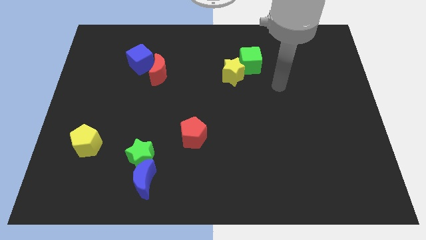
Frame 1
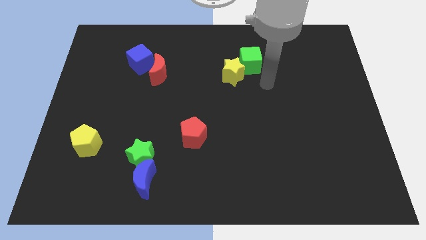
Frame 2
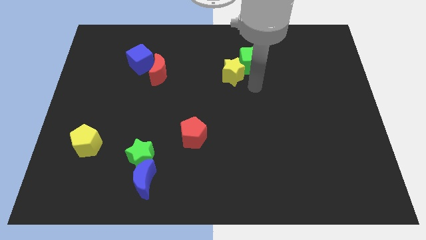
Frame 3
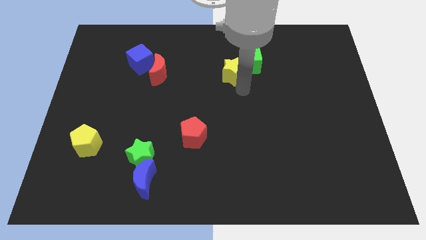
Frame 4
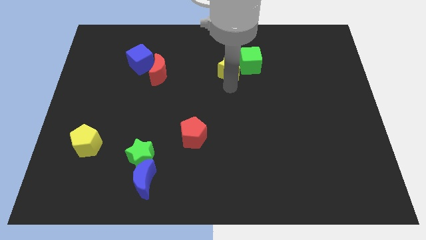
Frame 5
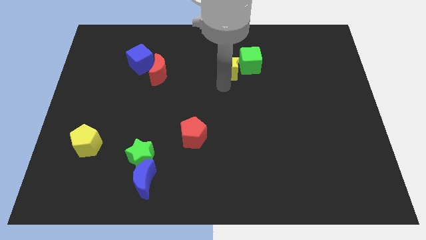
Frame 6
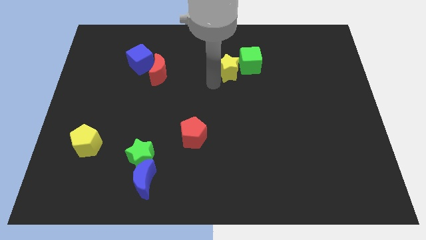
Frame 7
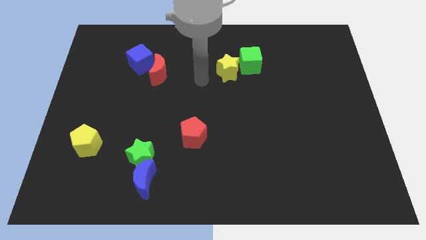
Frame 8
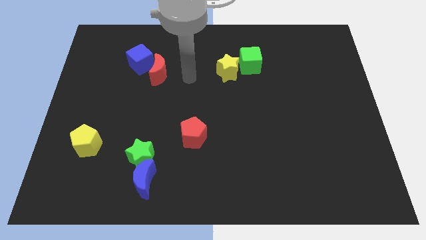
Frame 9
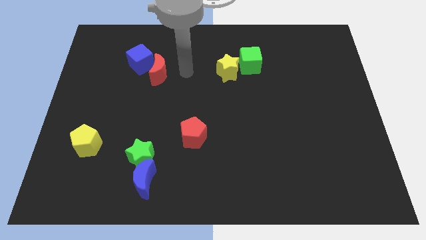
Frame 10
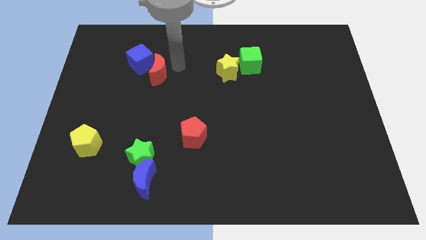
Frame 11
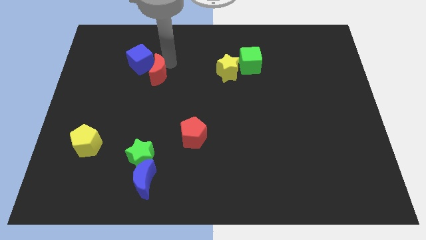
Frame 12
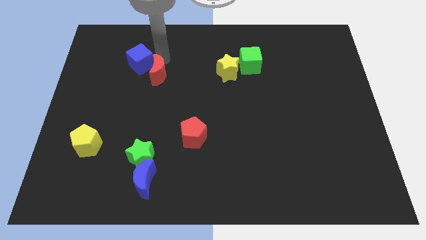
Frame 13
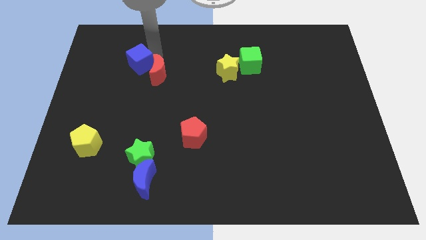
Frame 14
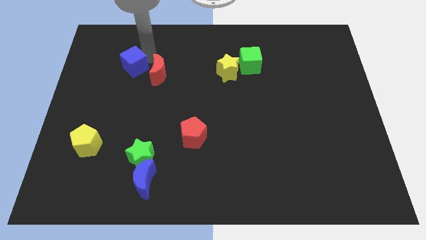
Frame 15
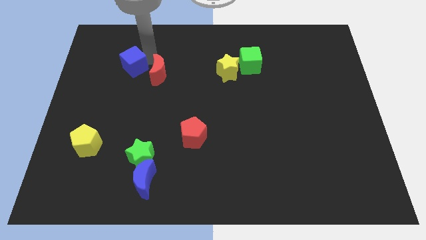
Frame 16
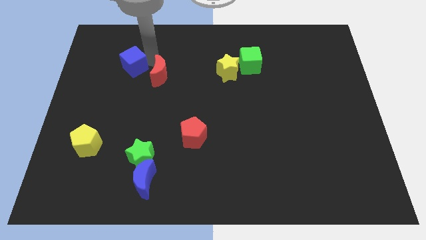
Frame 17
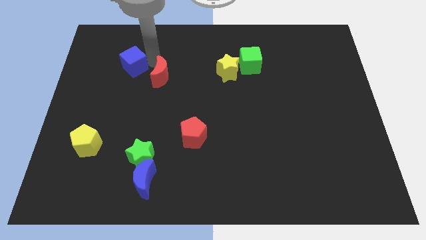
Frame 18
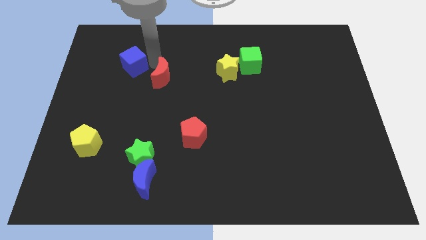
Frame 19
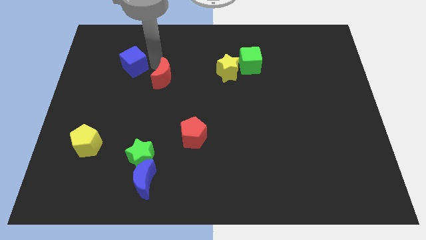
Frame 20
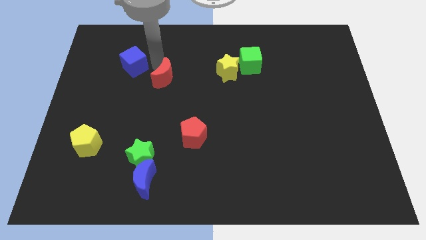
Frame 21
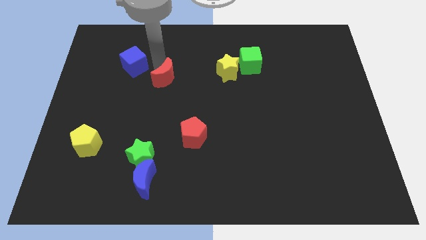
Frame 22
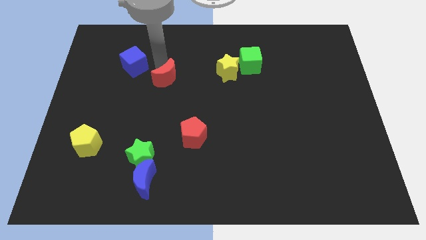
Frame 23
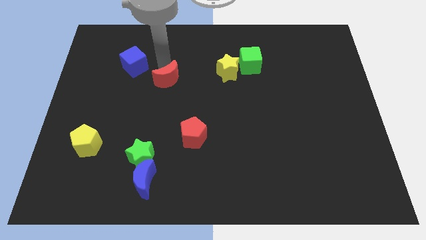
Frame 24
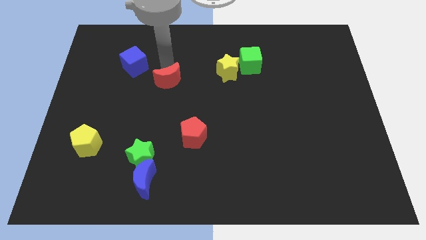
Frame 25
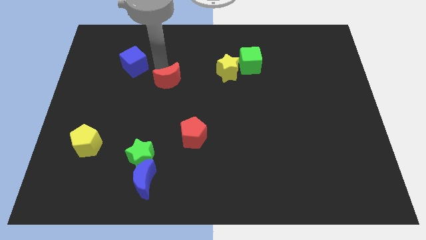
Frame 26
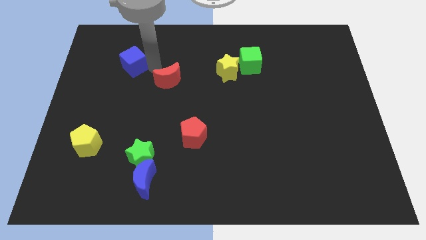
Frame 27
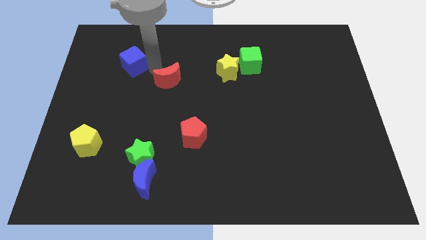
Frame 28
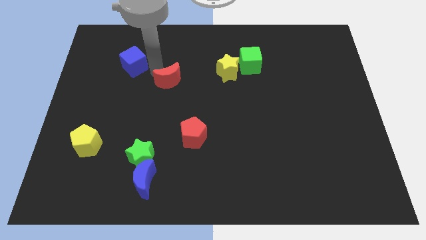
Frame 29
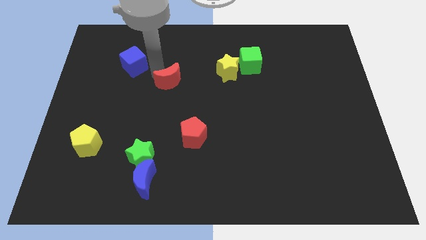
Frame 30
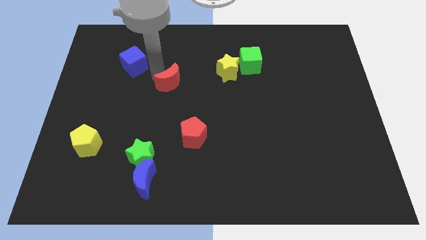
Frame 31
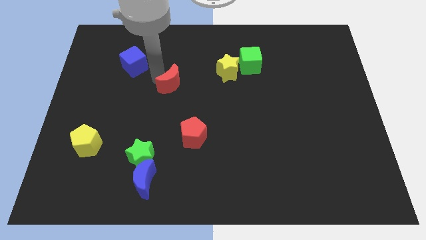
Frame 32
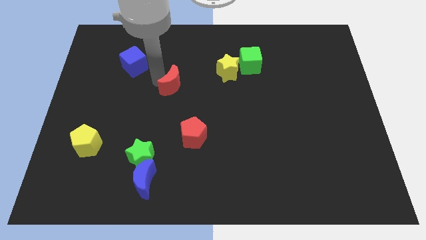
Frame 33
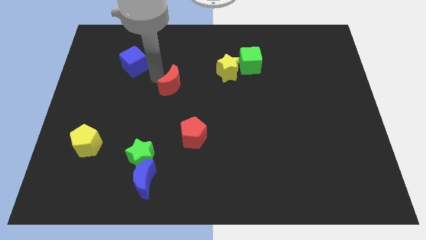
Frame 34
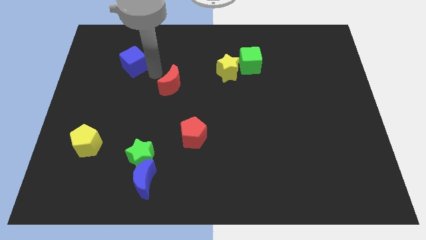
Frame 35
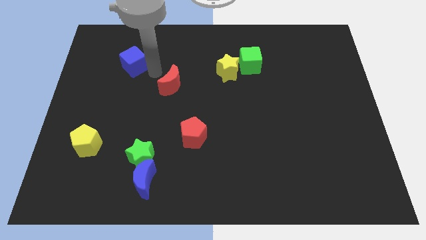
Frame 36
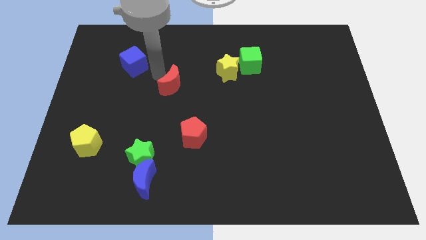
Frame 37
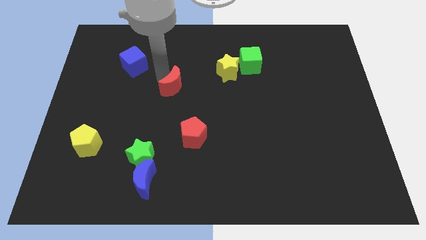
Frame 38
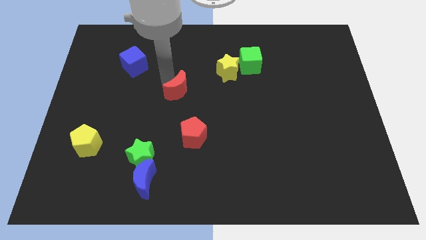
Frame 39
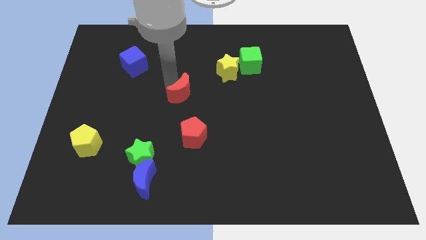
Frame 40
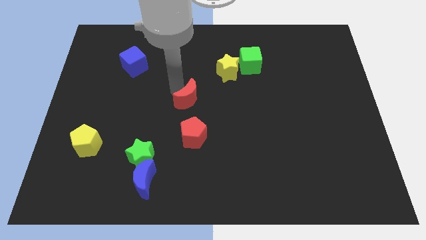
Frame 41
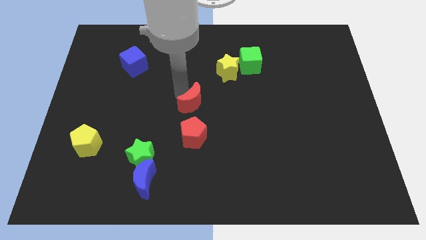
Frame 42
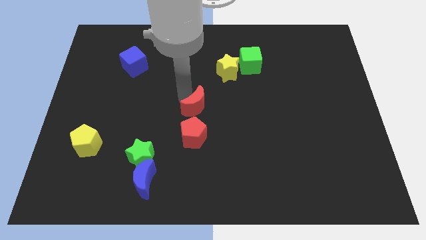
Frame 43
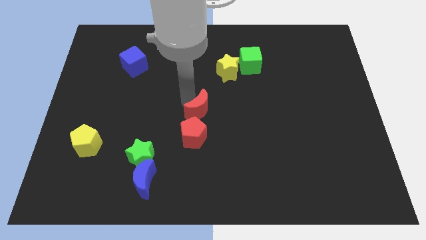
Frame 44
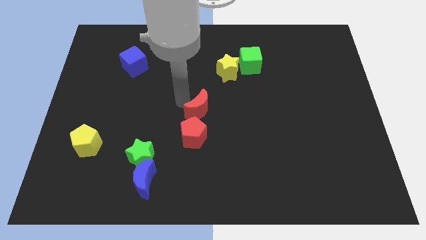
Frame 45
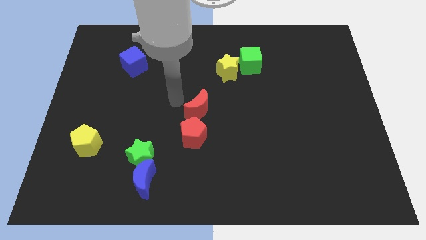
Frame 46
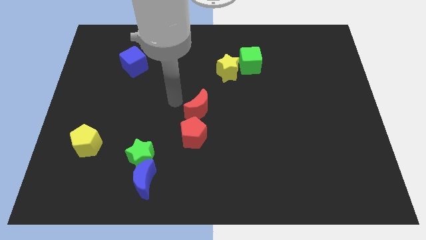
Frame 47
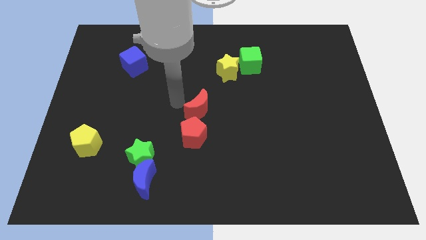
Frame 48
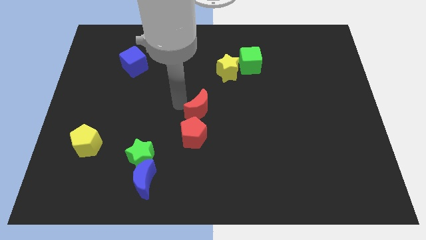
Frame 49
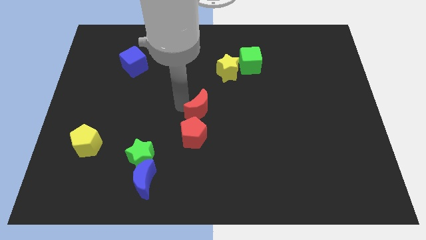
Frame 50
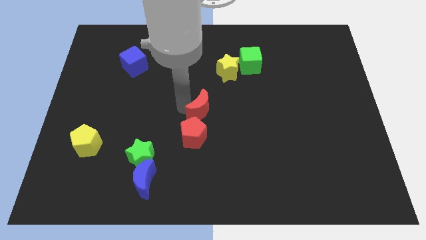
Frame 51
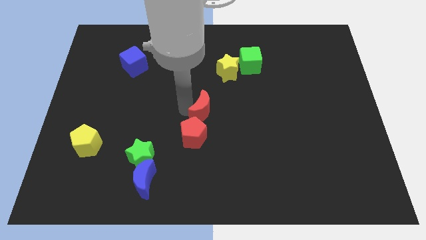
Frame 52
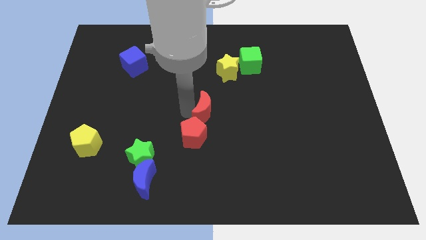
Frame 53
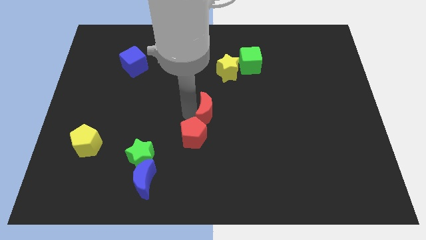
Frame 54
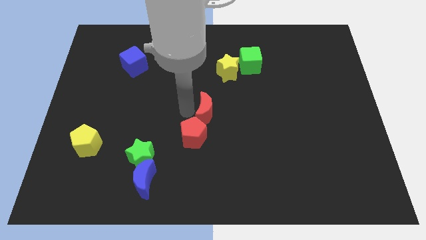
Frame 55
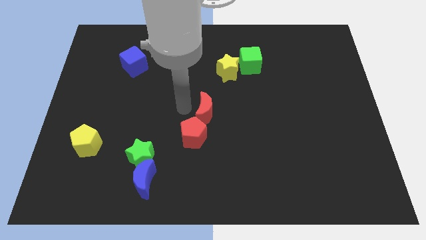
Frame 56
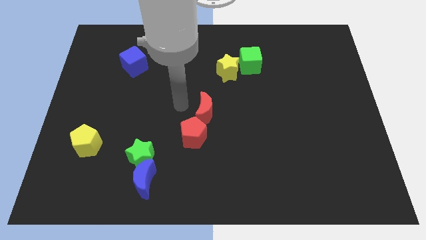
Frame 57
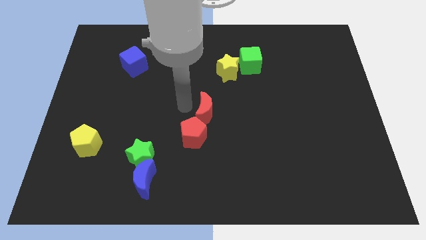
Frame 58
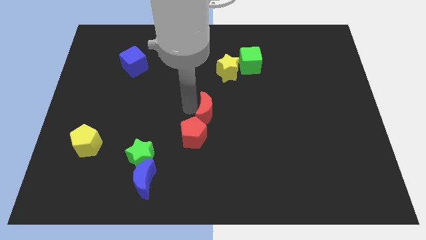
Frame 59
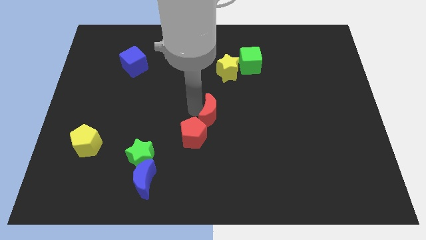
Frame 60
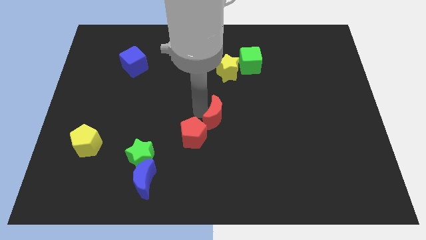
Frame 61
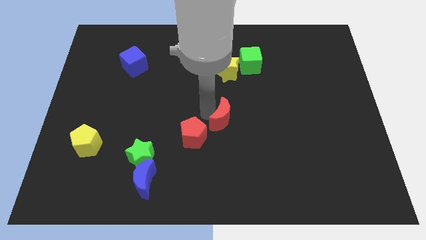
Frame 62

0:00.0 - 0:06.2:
slide the red moon down and then to the right

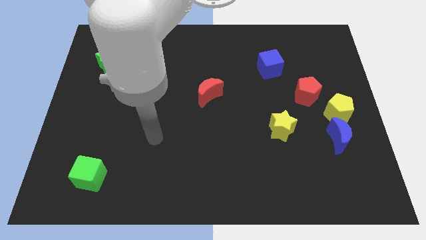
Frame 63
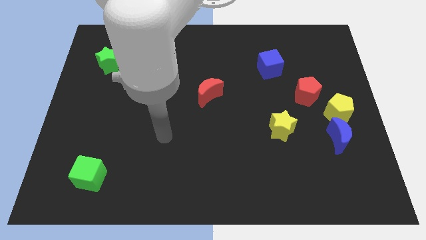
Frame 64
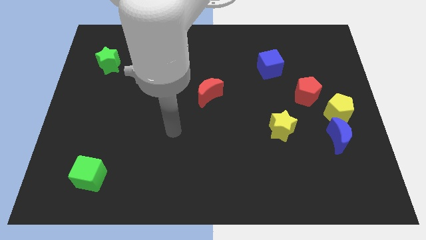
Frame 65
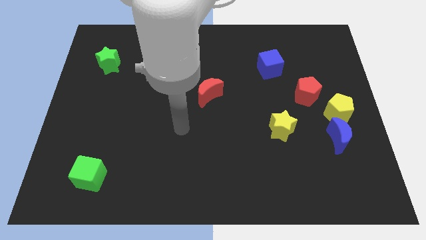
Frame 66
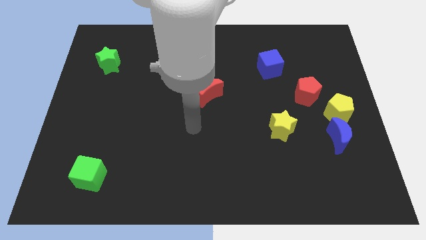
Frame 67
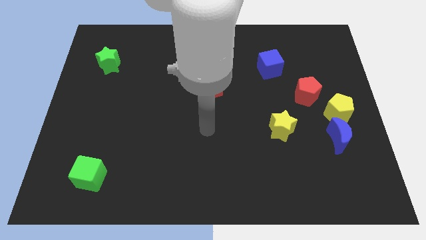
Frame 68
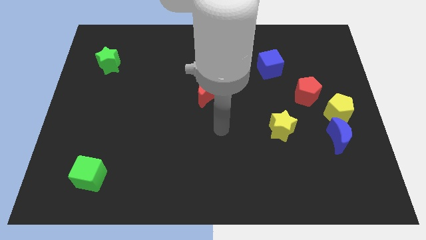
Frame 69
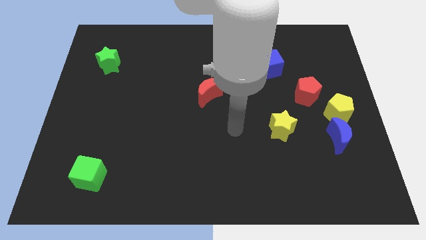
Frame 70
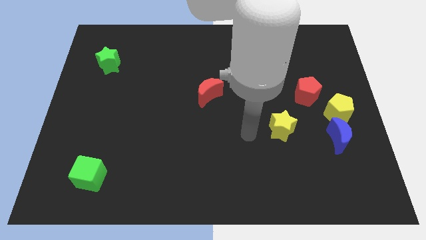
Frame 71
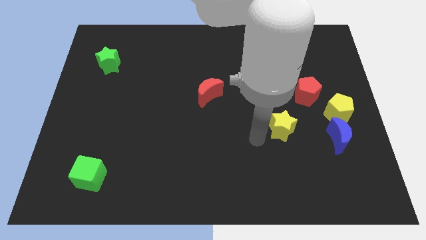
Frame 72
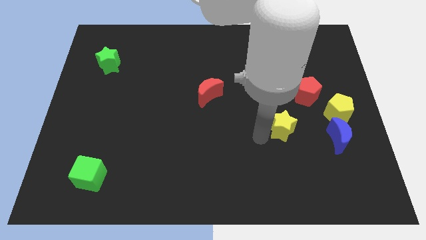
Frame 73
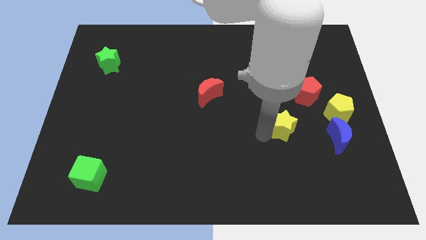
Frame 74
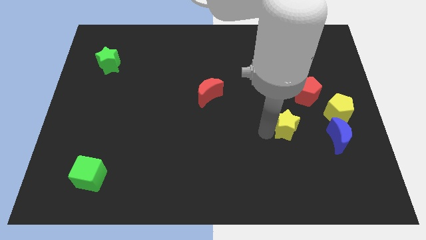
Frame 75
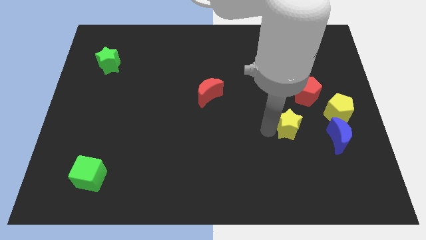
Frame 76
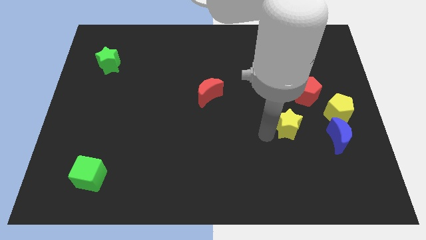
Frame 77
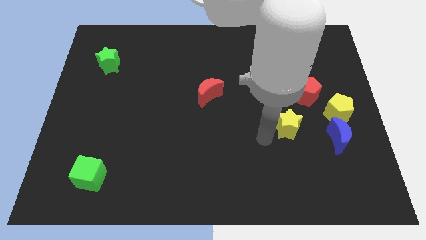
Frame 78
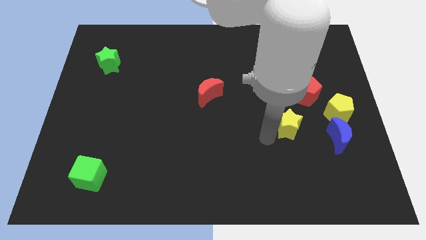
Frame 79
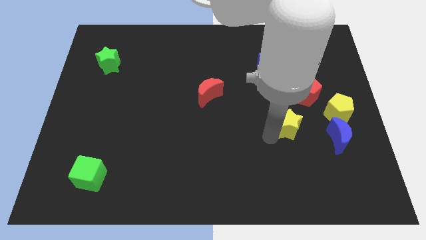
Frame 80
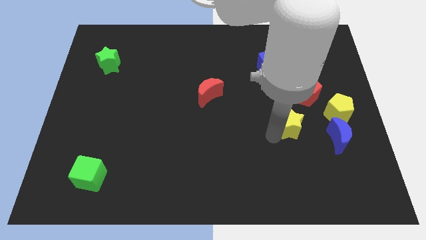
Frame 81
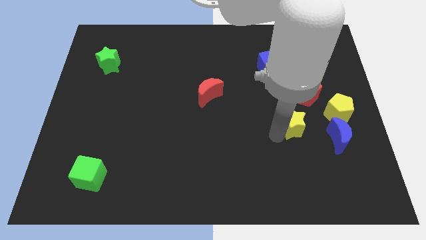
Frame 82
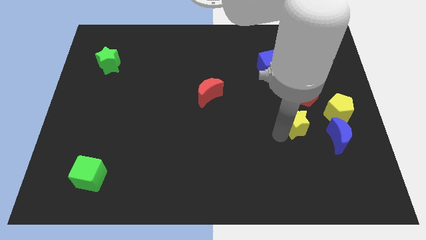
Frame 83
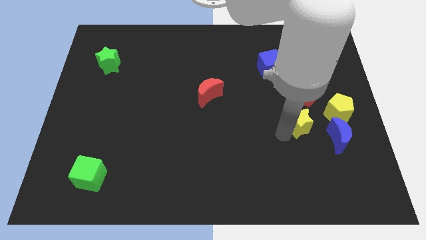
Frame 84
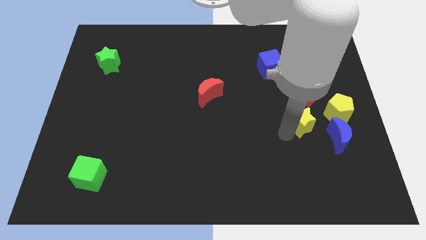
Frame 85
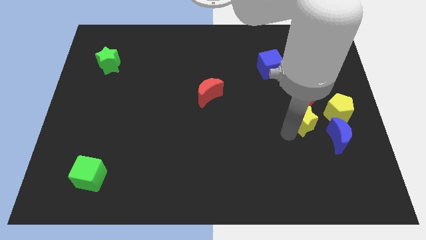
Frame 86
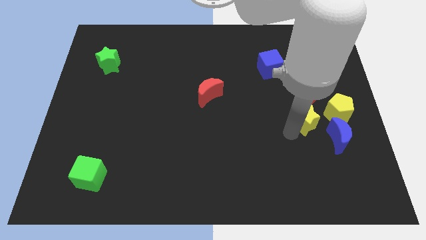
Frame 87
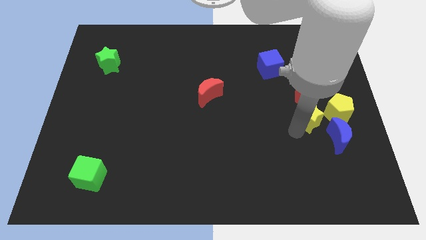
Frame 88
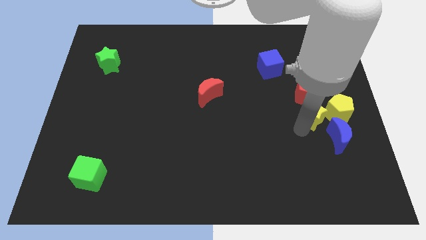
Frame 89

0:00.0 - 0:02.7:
push the yellow star a little up and to the right
